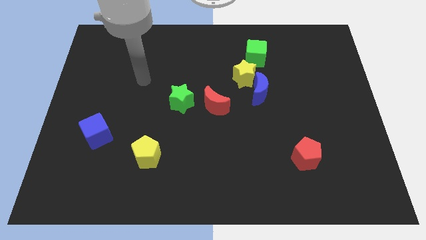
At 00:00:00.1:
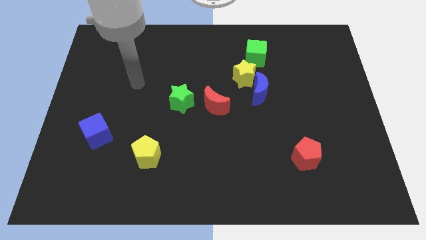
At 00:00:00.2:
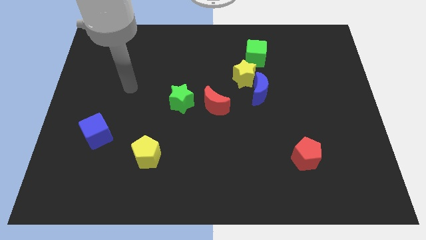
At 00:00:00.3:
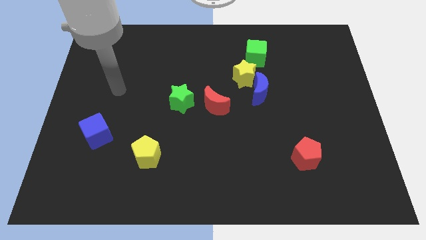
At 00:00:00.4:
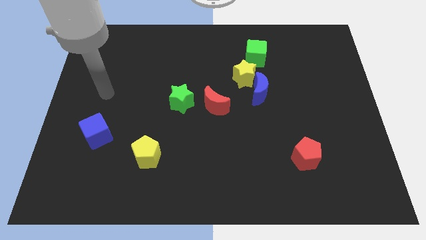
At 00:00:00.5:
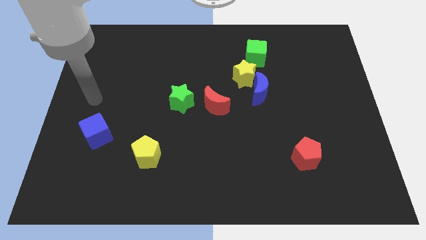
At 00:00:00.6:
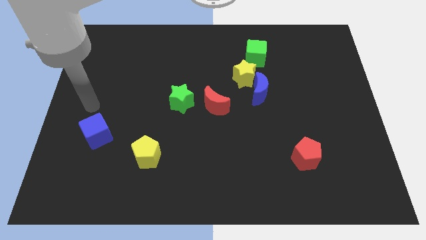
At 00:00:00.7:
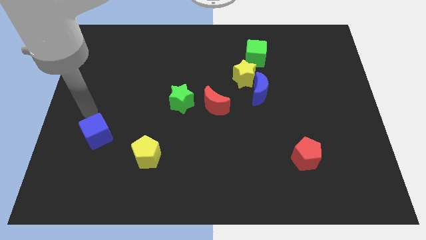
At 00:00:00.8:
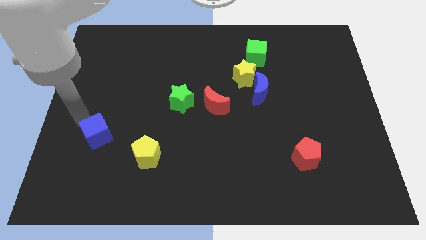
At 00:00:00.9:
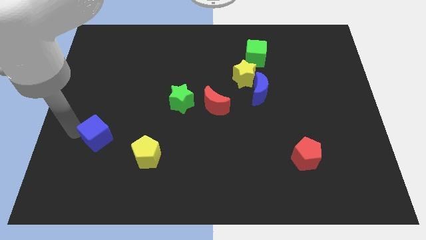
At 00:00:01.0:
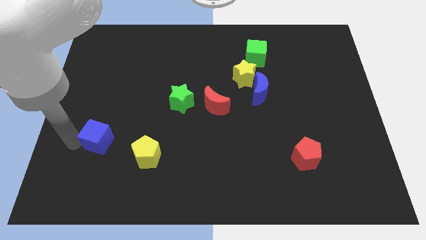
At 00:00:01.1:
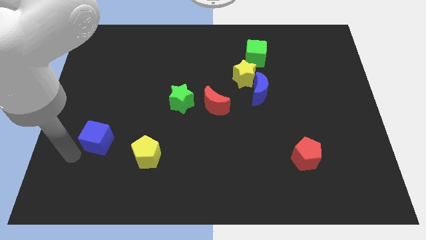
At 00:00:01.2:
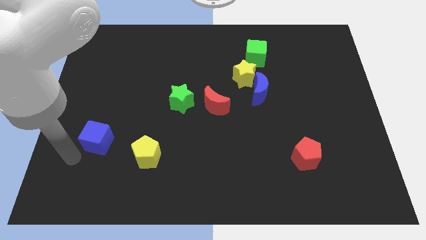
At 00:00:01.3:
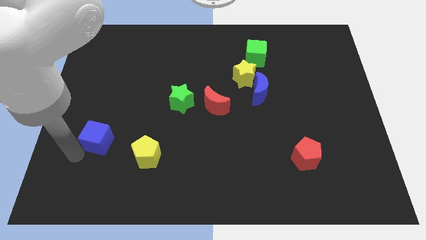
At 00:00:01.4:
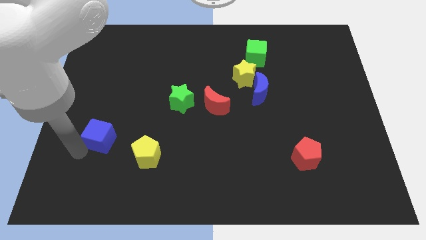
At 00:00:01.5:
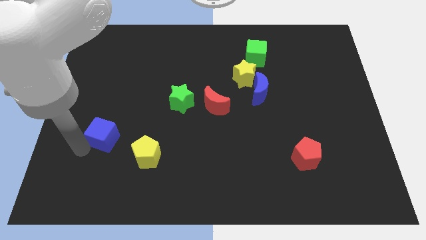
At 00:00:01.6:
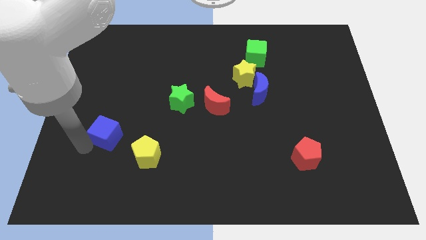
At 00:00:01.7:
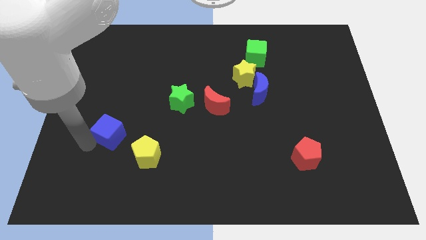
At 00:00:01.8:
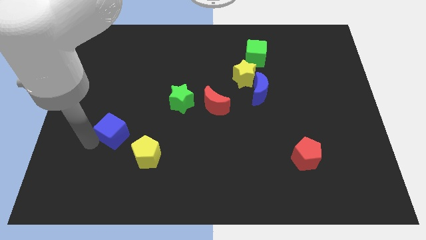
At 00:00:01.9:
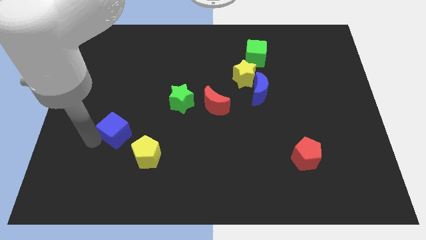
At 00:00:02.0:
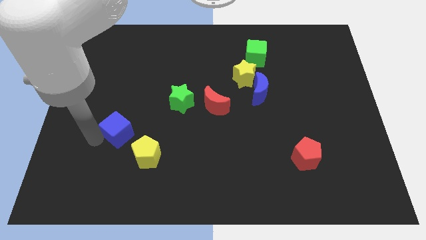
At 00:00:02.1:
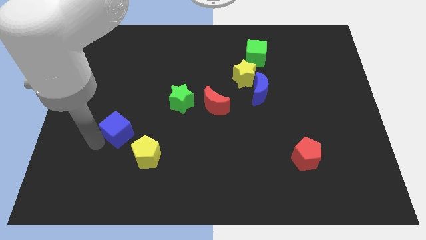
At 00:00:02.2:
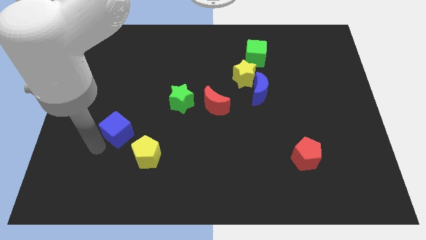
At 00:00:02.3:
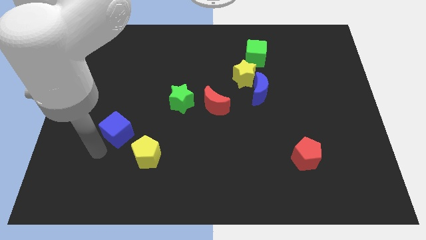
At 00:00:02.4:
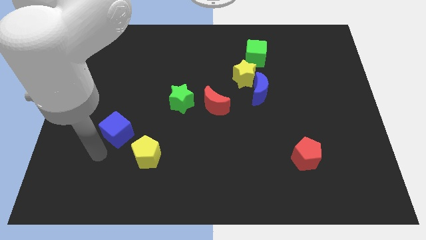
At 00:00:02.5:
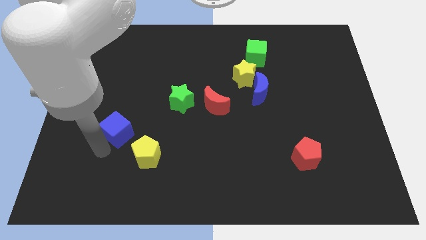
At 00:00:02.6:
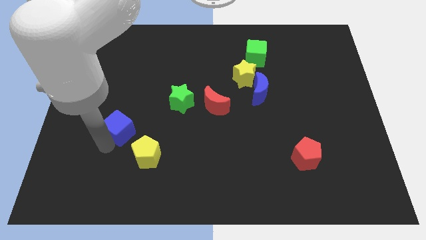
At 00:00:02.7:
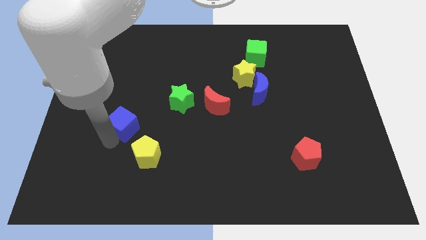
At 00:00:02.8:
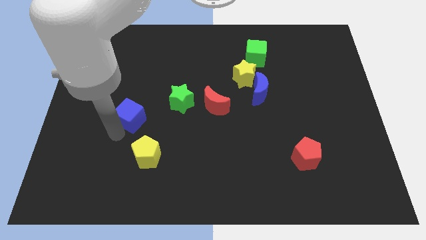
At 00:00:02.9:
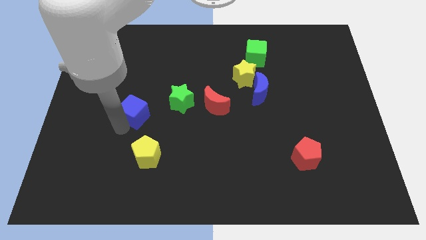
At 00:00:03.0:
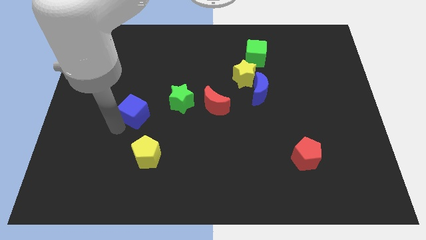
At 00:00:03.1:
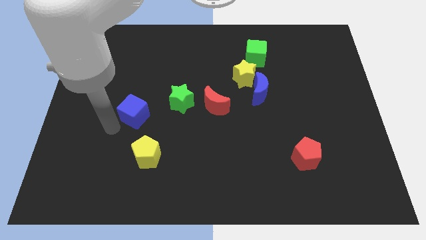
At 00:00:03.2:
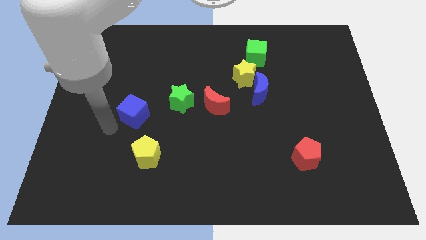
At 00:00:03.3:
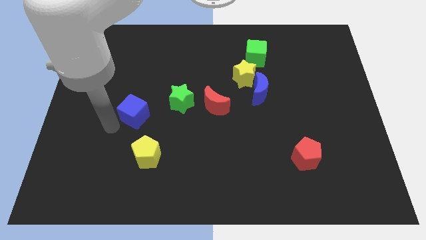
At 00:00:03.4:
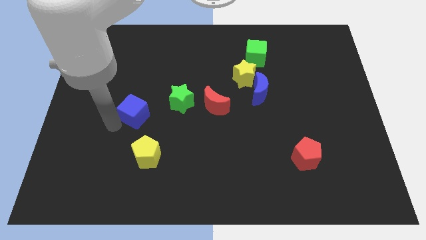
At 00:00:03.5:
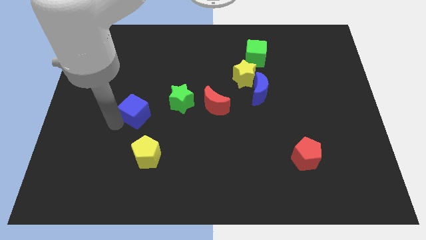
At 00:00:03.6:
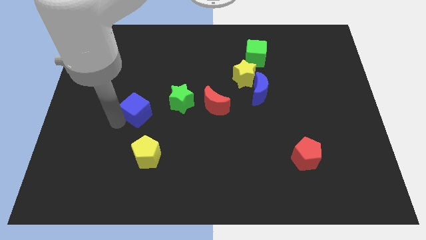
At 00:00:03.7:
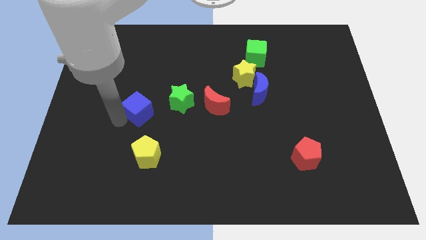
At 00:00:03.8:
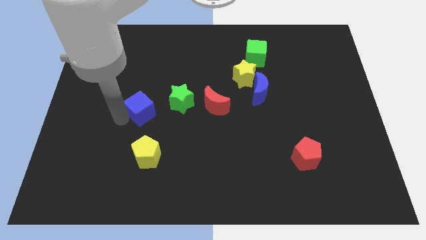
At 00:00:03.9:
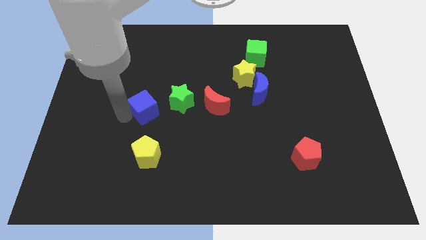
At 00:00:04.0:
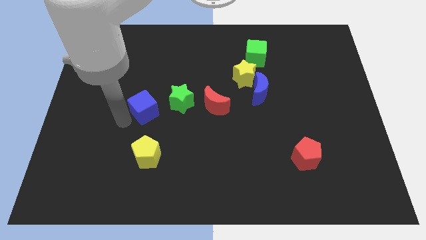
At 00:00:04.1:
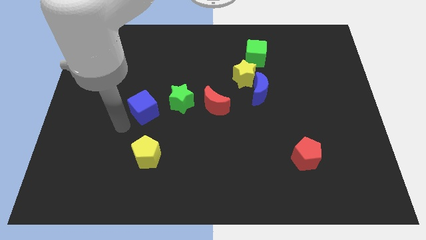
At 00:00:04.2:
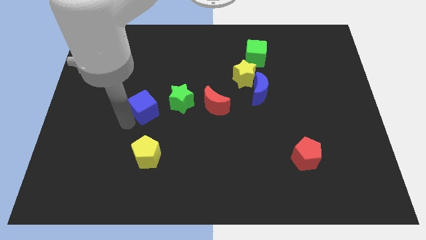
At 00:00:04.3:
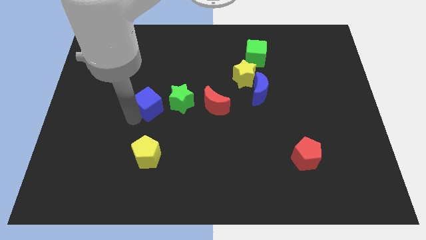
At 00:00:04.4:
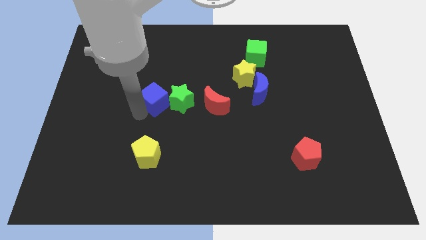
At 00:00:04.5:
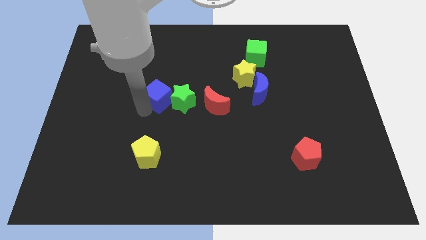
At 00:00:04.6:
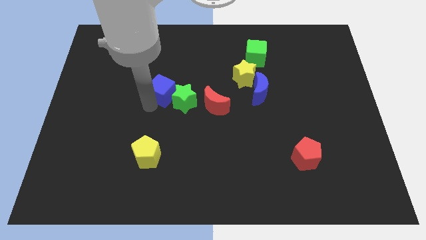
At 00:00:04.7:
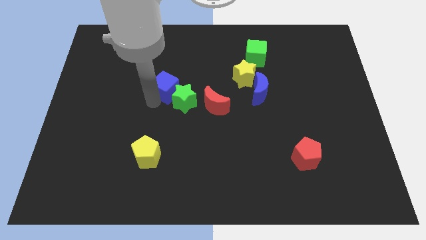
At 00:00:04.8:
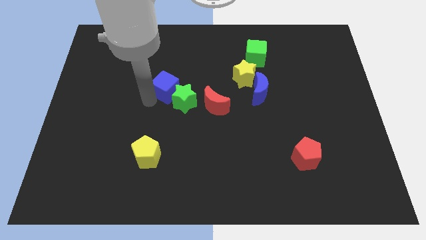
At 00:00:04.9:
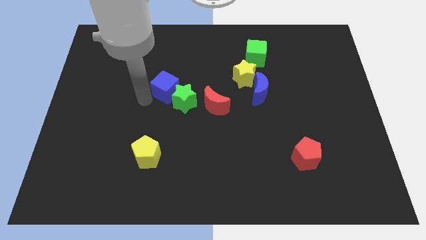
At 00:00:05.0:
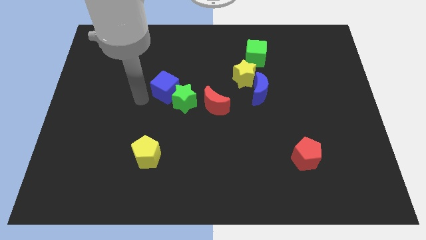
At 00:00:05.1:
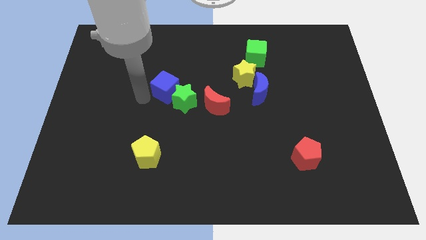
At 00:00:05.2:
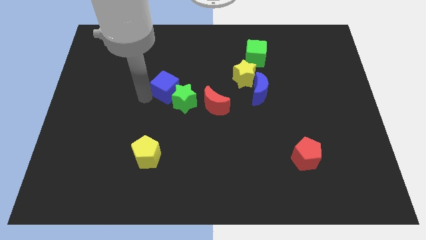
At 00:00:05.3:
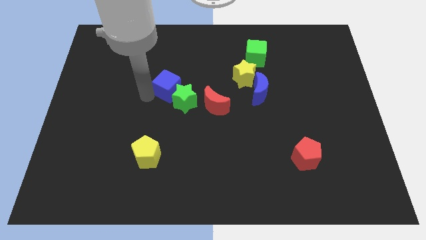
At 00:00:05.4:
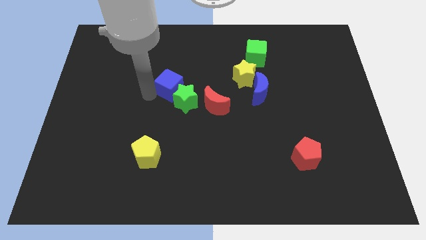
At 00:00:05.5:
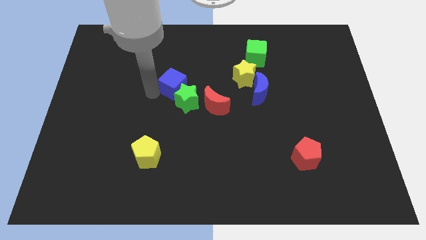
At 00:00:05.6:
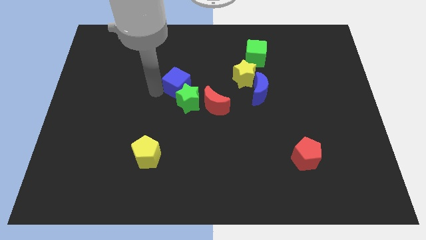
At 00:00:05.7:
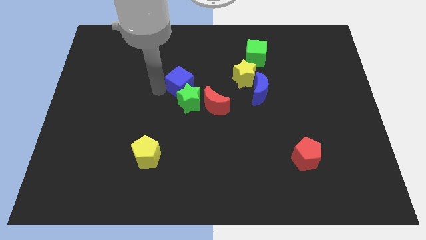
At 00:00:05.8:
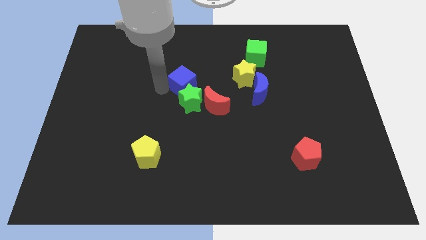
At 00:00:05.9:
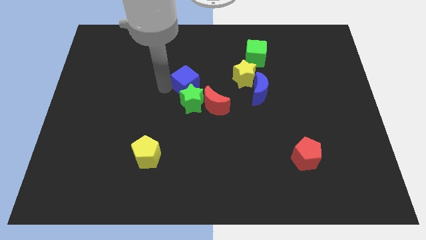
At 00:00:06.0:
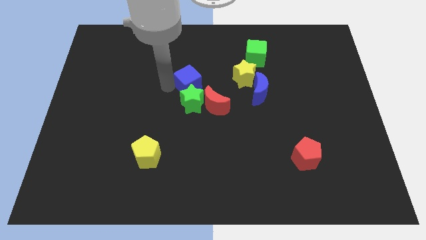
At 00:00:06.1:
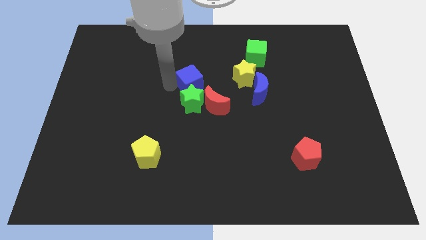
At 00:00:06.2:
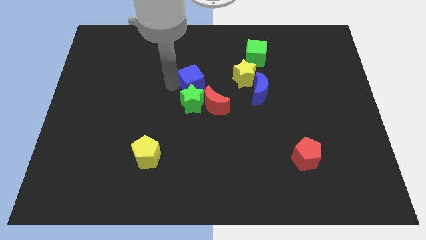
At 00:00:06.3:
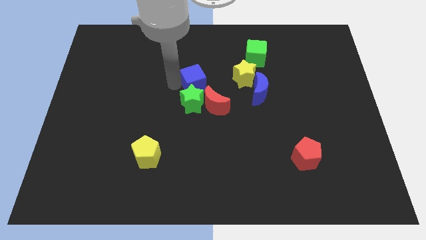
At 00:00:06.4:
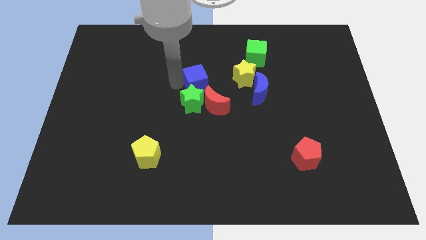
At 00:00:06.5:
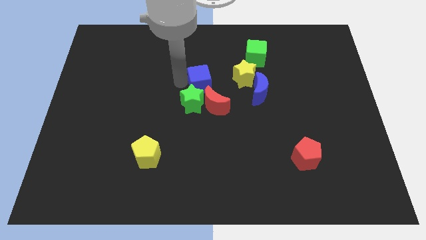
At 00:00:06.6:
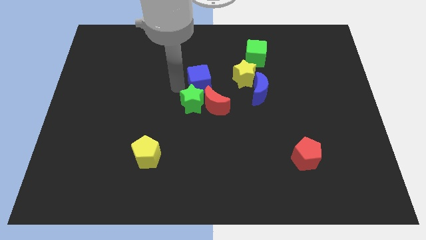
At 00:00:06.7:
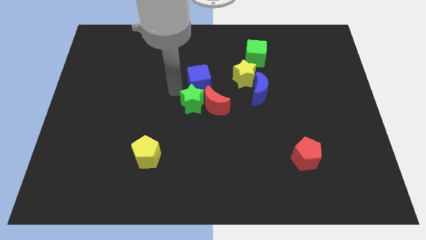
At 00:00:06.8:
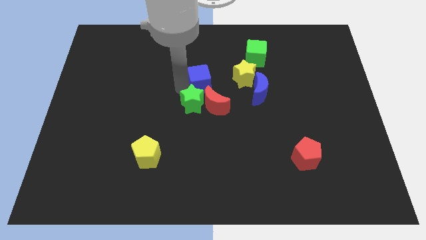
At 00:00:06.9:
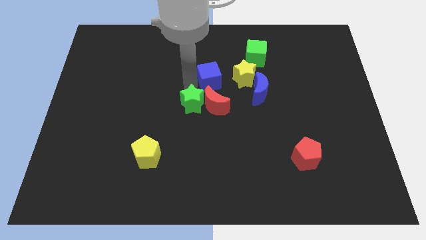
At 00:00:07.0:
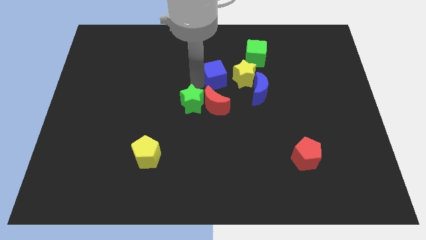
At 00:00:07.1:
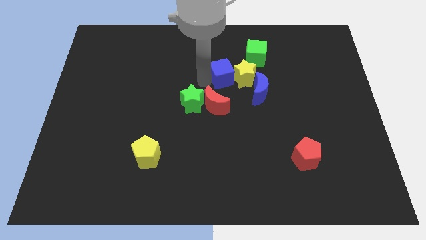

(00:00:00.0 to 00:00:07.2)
move the blue cube diagonally down and to the left of the green cube
